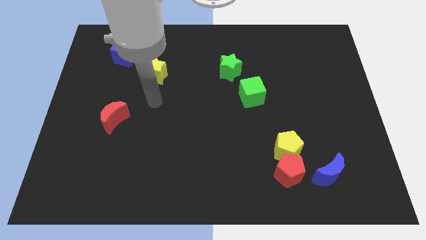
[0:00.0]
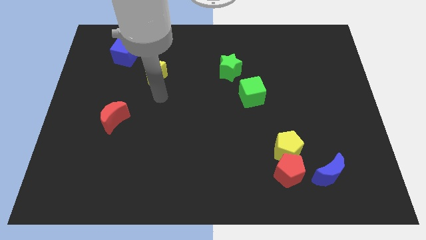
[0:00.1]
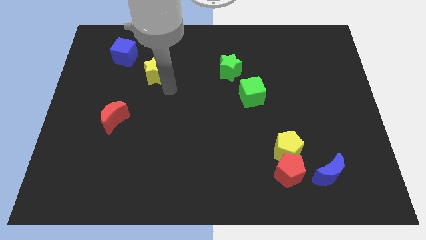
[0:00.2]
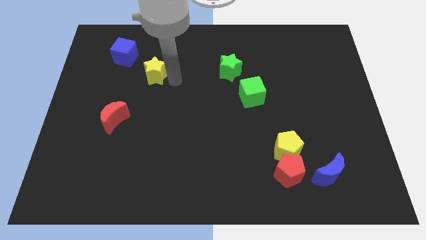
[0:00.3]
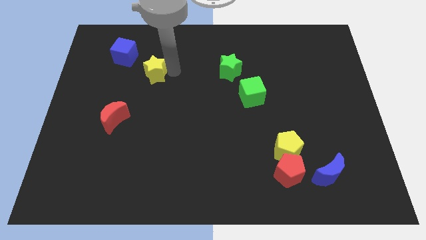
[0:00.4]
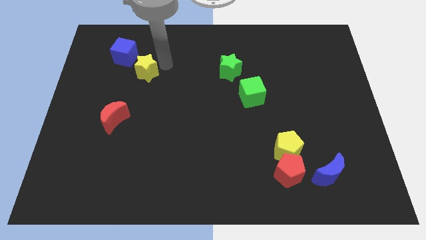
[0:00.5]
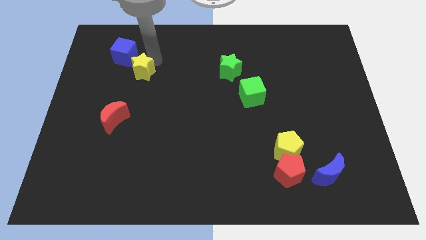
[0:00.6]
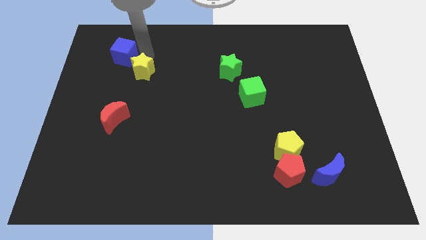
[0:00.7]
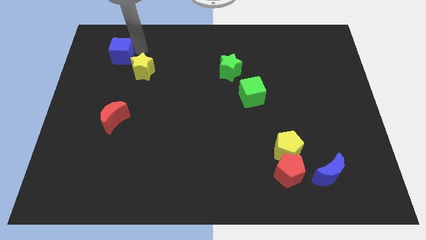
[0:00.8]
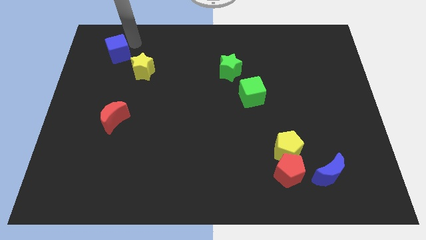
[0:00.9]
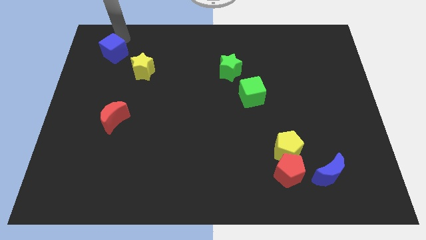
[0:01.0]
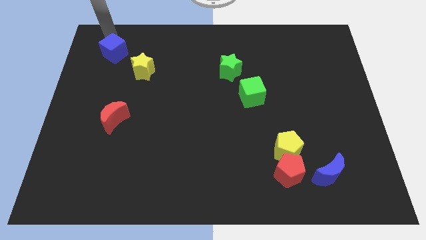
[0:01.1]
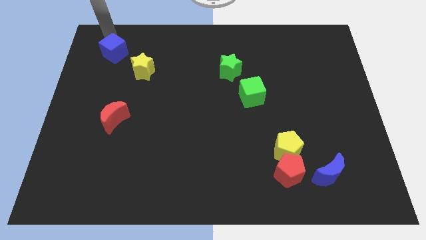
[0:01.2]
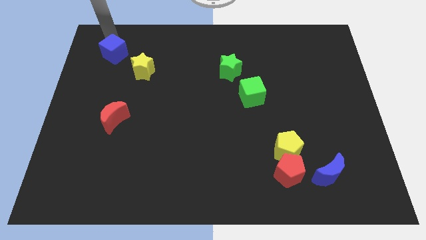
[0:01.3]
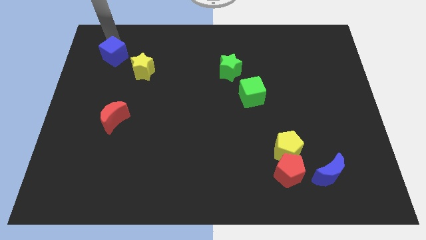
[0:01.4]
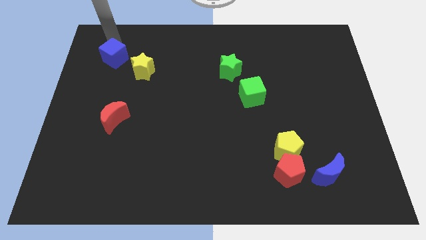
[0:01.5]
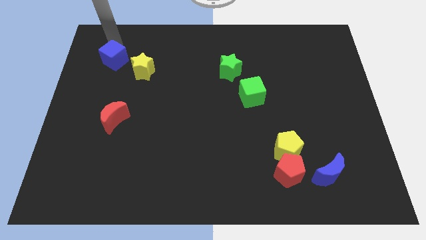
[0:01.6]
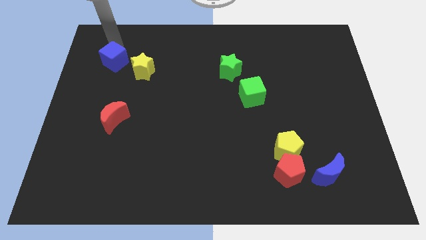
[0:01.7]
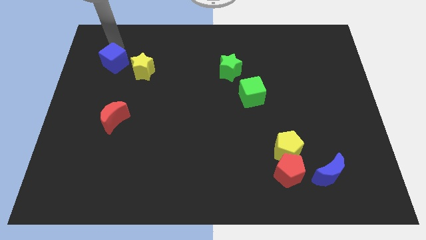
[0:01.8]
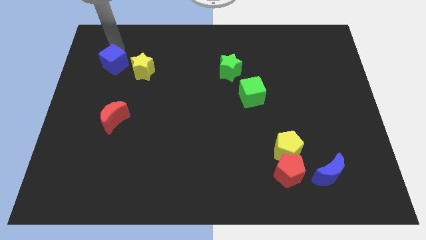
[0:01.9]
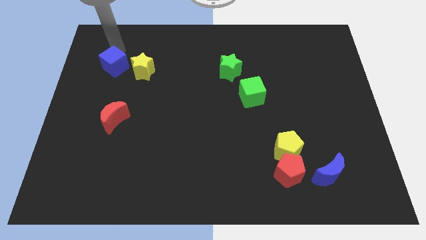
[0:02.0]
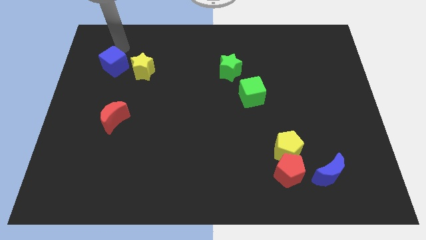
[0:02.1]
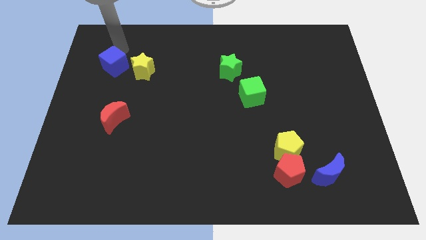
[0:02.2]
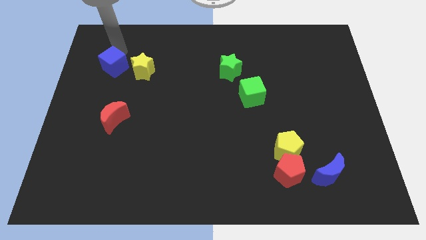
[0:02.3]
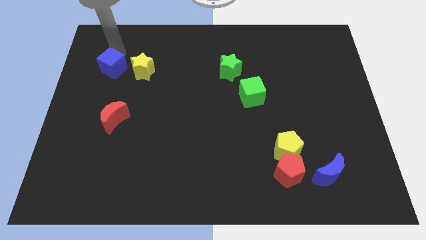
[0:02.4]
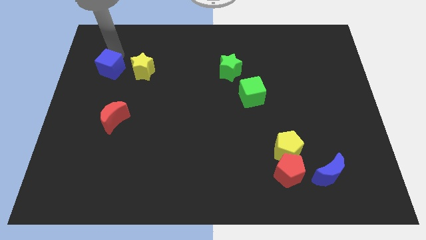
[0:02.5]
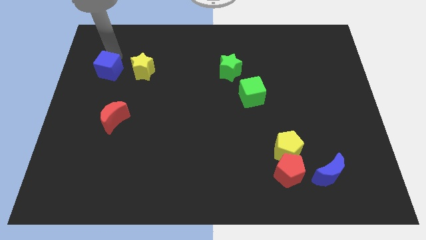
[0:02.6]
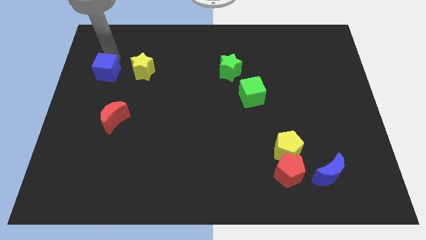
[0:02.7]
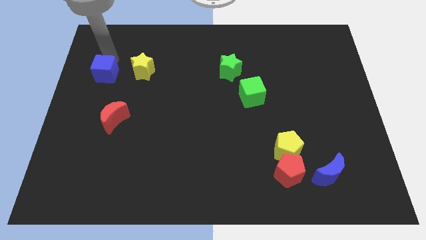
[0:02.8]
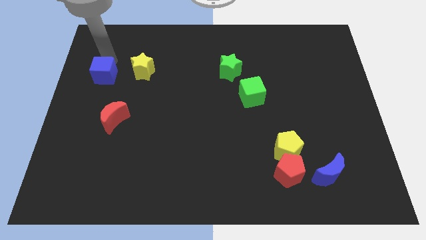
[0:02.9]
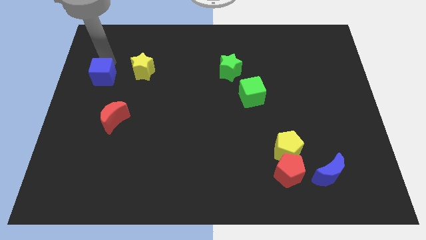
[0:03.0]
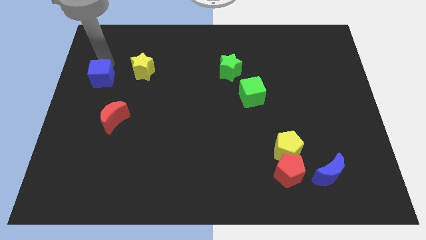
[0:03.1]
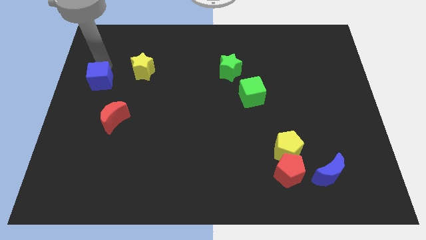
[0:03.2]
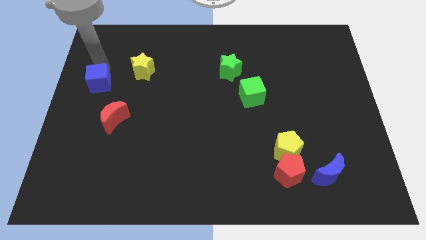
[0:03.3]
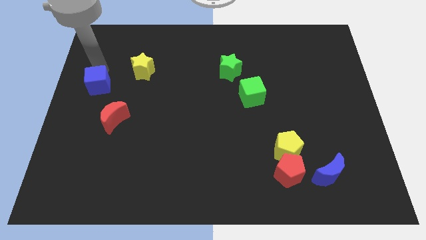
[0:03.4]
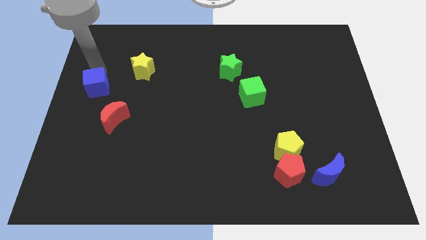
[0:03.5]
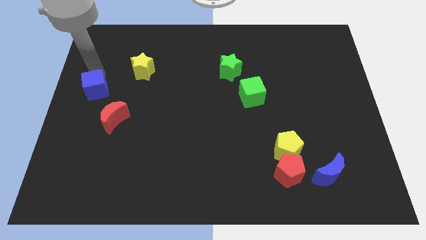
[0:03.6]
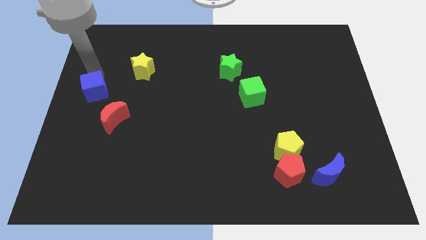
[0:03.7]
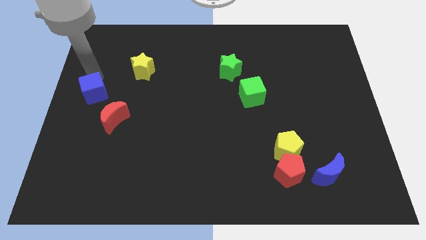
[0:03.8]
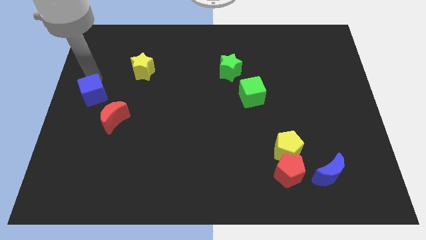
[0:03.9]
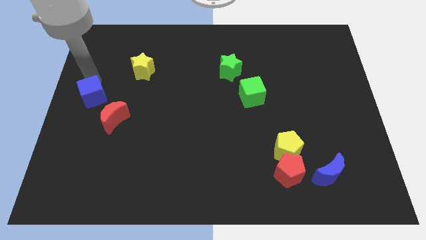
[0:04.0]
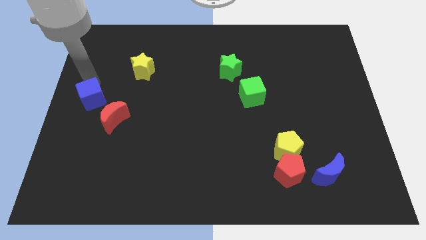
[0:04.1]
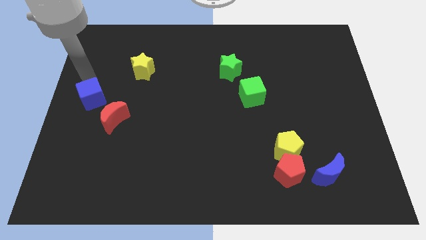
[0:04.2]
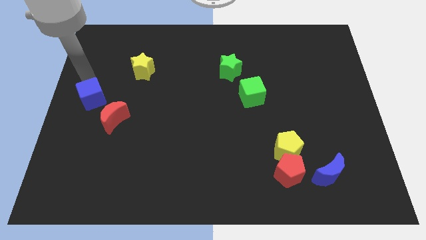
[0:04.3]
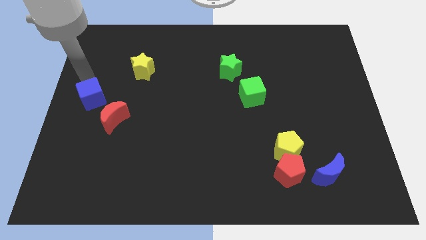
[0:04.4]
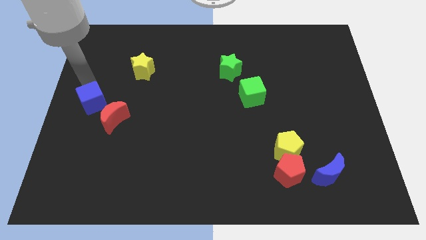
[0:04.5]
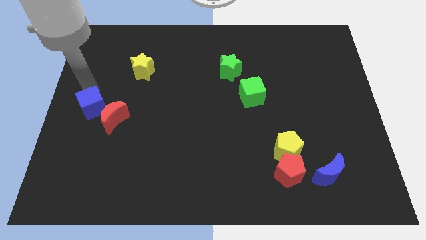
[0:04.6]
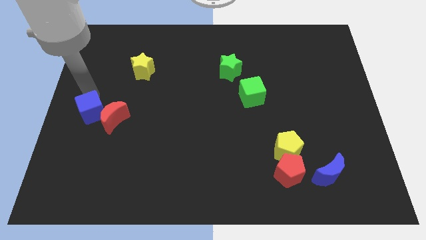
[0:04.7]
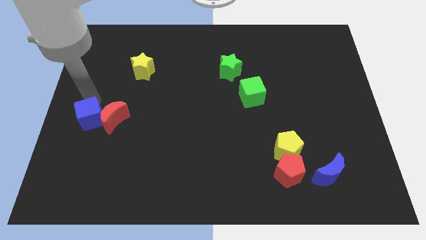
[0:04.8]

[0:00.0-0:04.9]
put the blue cube to the bottom left of the red moon

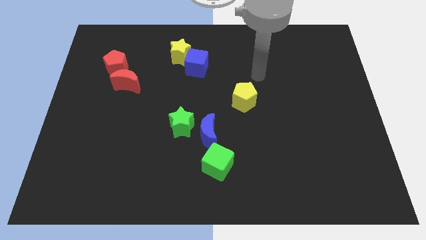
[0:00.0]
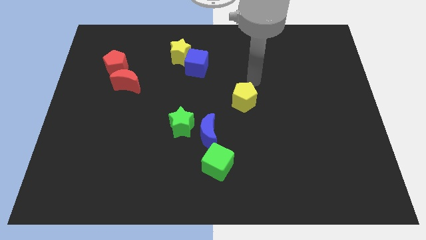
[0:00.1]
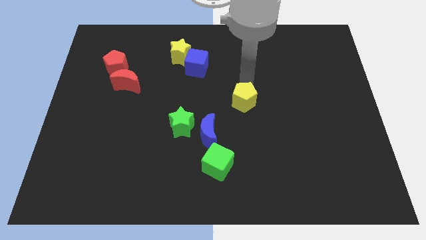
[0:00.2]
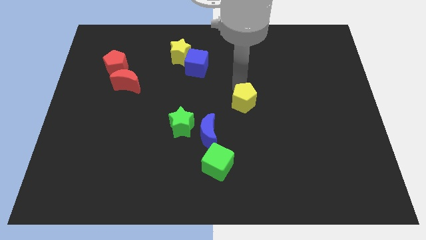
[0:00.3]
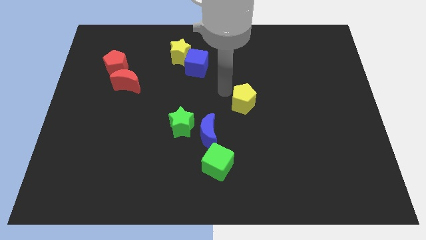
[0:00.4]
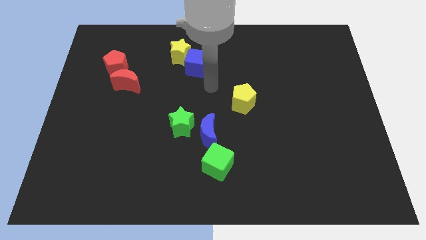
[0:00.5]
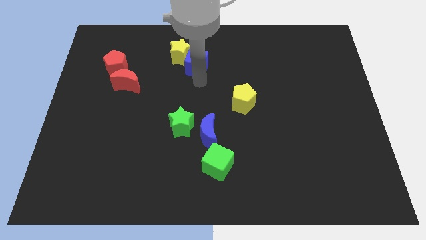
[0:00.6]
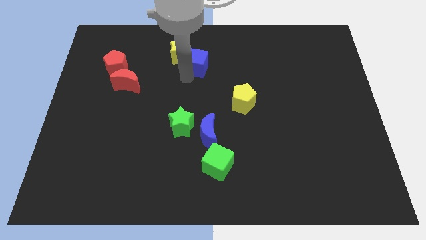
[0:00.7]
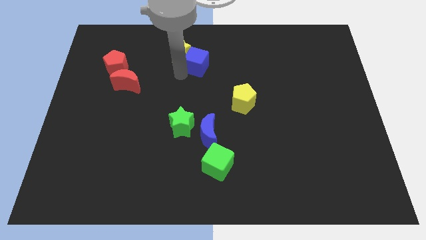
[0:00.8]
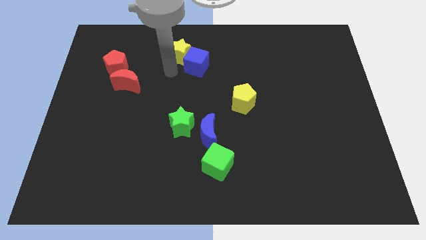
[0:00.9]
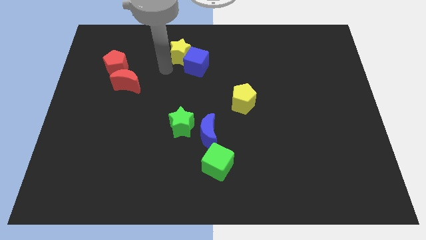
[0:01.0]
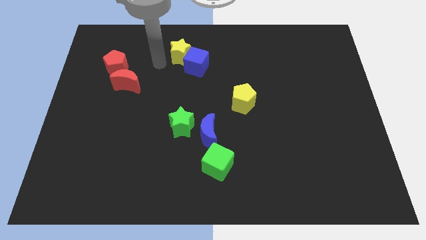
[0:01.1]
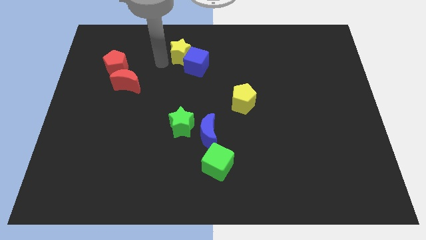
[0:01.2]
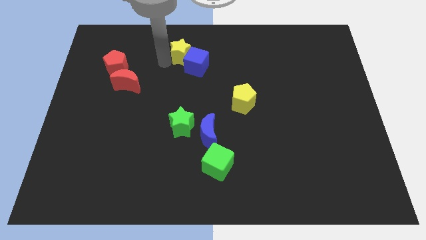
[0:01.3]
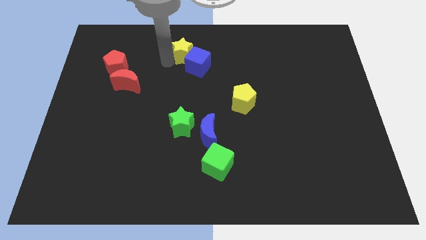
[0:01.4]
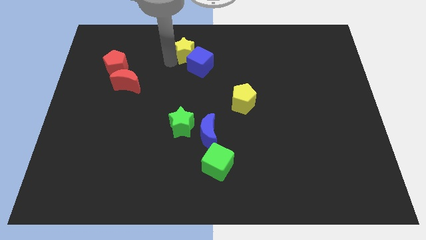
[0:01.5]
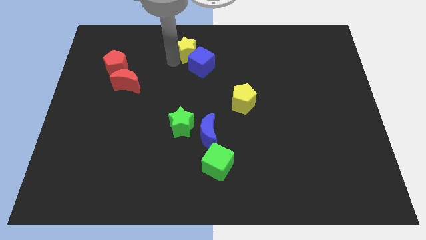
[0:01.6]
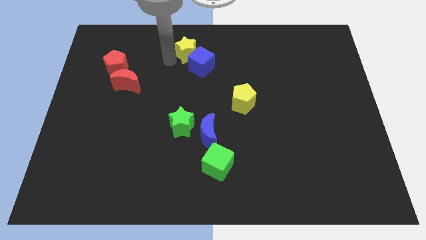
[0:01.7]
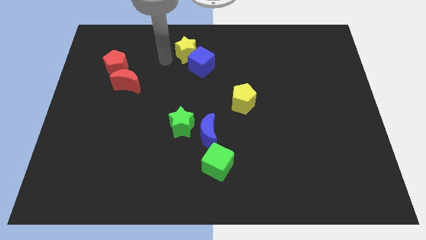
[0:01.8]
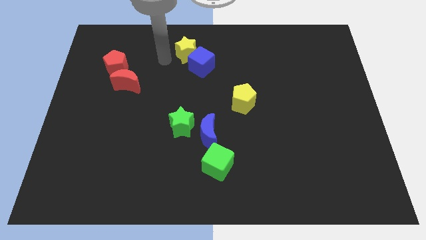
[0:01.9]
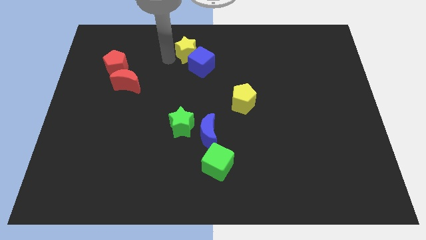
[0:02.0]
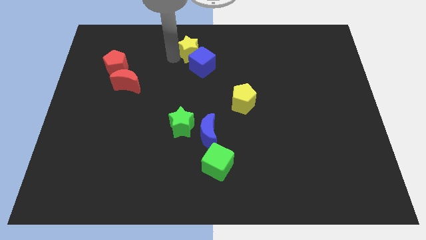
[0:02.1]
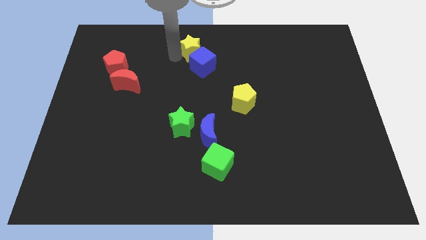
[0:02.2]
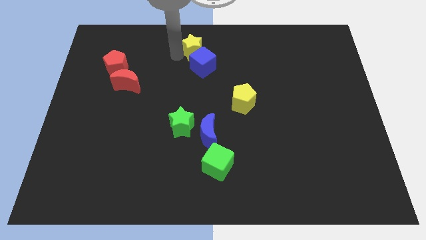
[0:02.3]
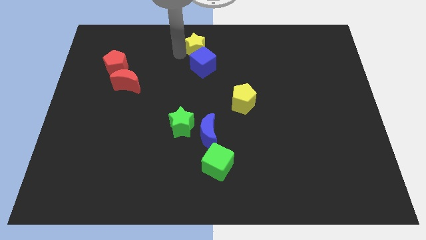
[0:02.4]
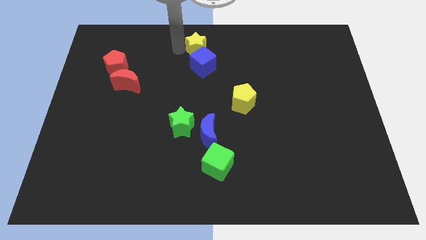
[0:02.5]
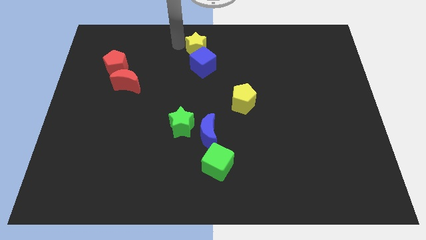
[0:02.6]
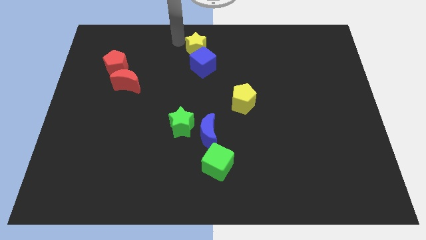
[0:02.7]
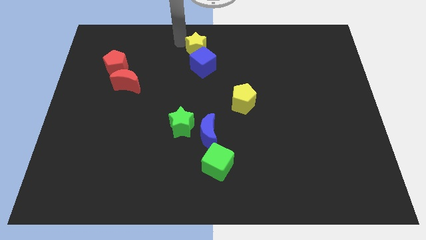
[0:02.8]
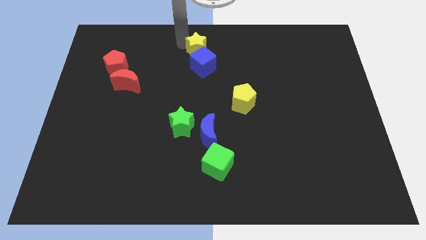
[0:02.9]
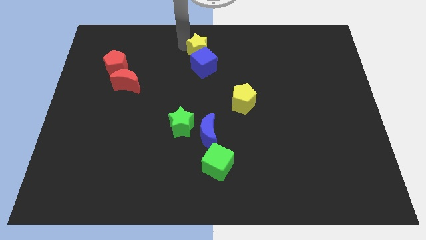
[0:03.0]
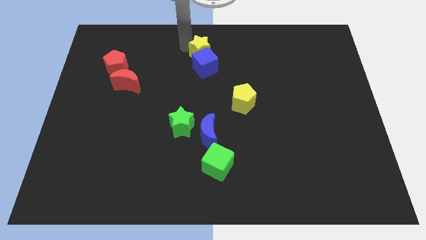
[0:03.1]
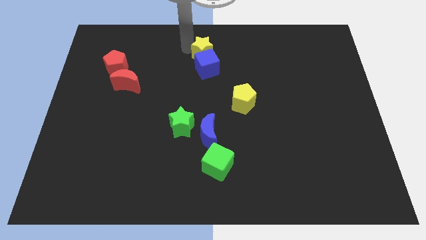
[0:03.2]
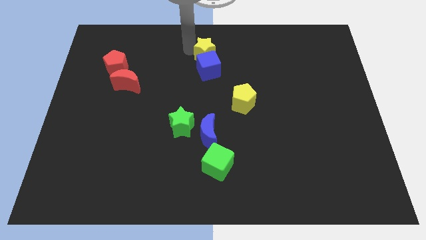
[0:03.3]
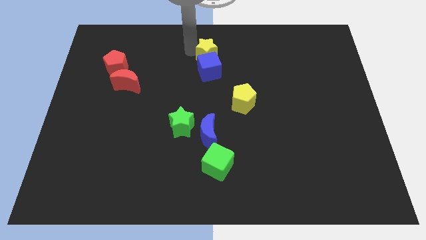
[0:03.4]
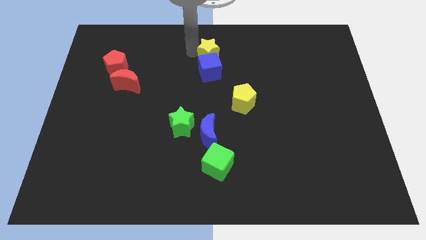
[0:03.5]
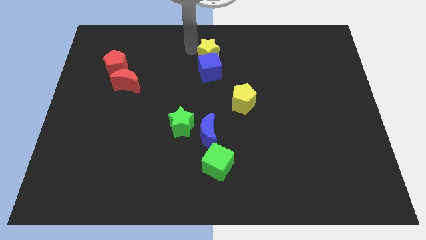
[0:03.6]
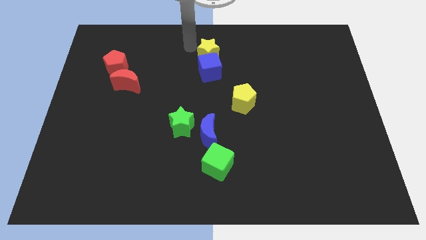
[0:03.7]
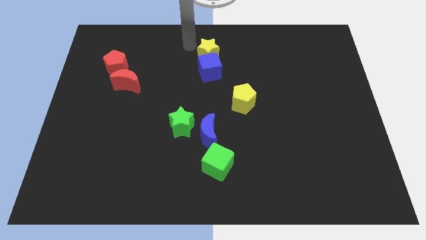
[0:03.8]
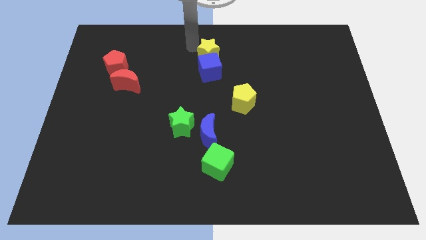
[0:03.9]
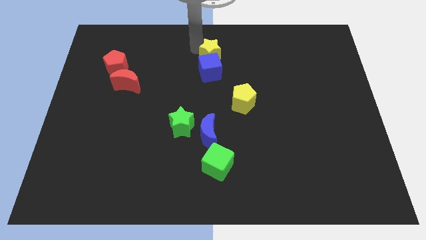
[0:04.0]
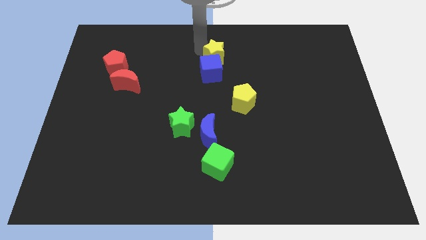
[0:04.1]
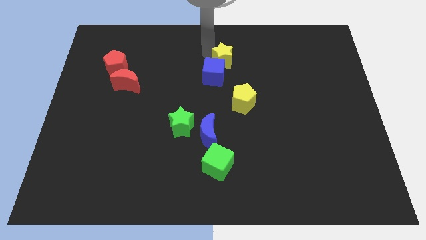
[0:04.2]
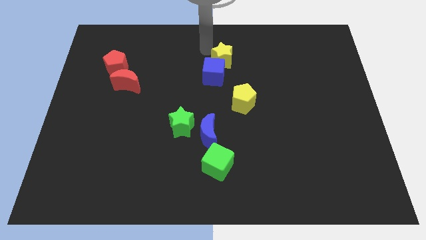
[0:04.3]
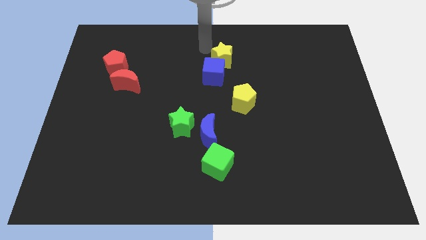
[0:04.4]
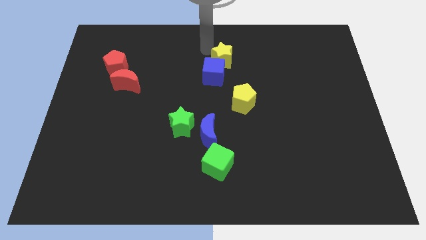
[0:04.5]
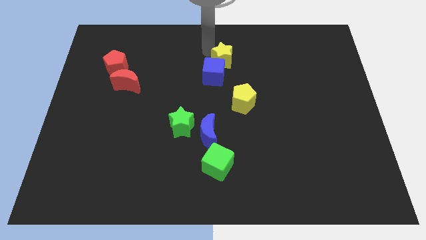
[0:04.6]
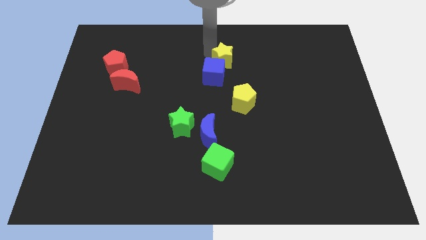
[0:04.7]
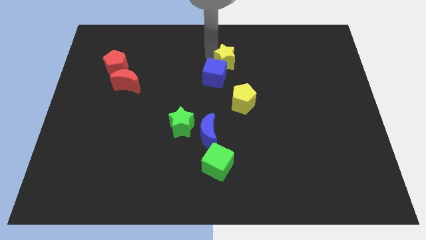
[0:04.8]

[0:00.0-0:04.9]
slide the yellow star to the top of the yellow pentagon
